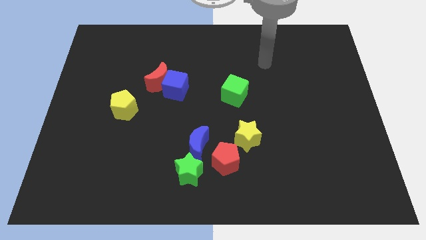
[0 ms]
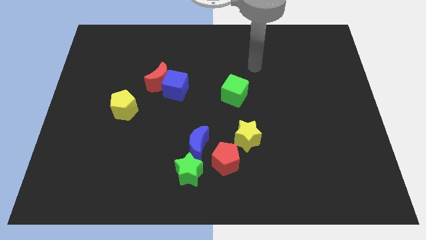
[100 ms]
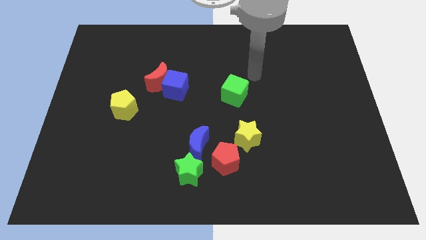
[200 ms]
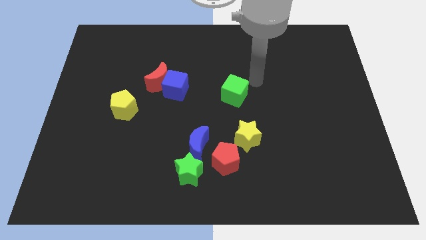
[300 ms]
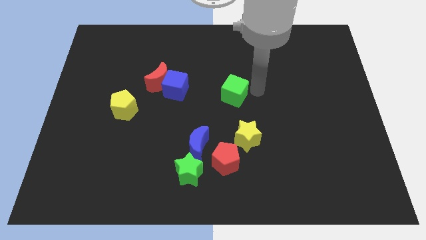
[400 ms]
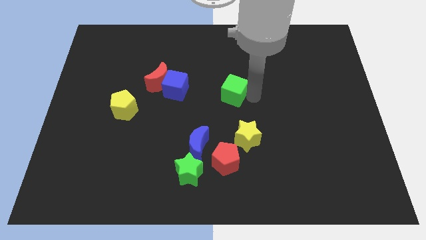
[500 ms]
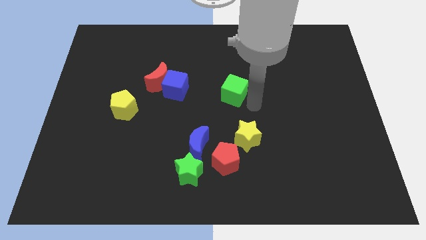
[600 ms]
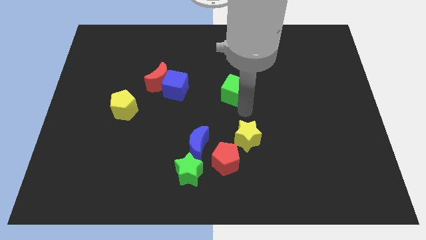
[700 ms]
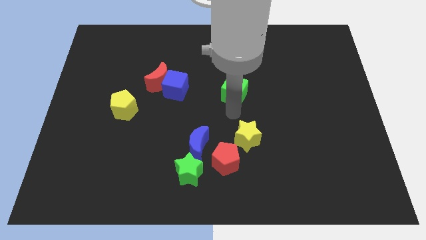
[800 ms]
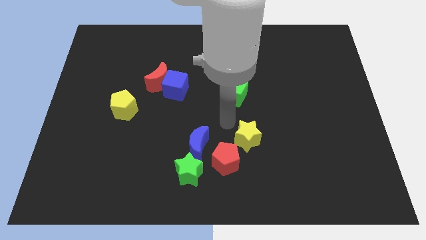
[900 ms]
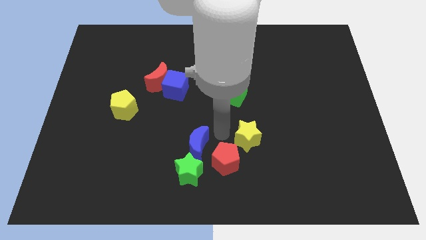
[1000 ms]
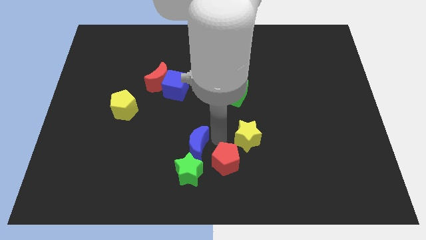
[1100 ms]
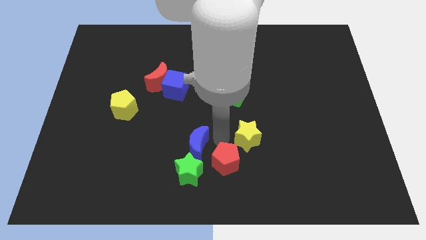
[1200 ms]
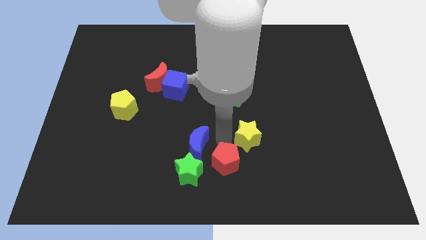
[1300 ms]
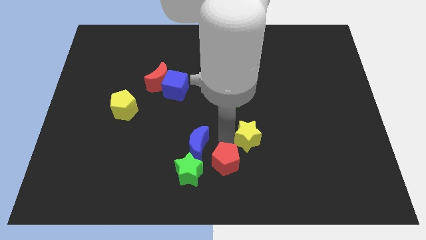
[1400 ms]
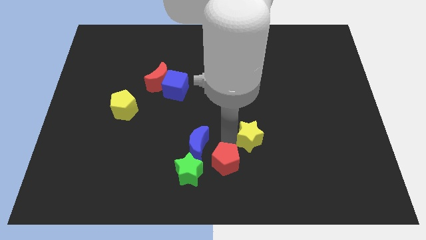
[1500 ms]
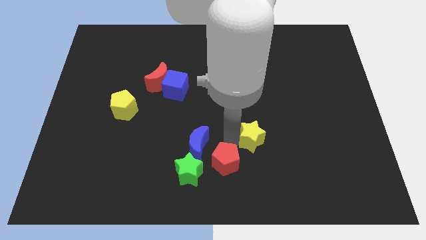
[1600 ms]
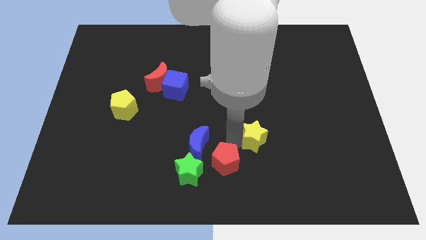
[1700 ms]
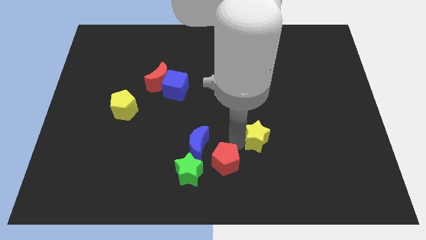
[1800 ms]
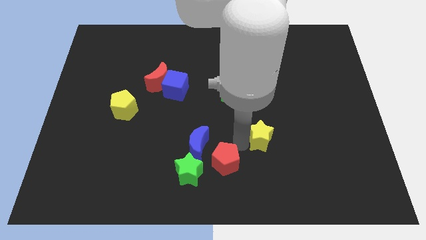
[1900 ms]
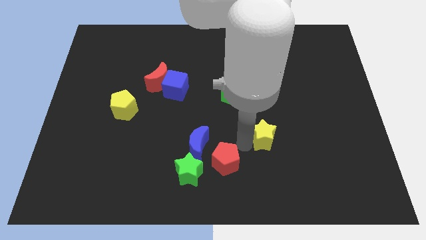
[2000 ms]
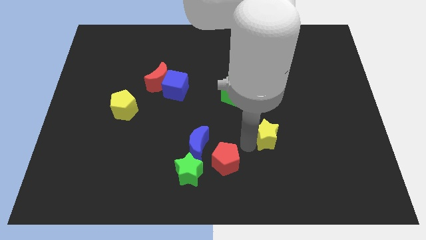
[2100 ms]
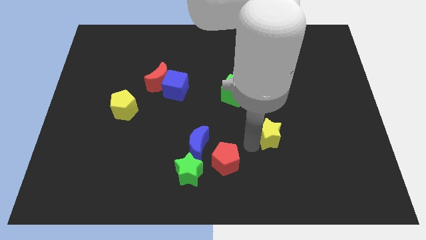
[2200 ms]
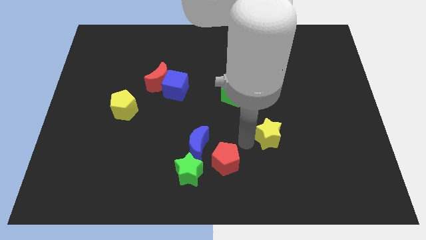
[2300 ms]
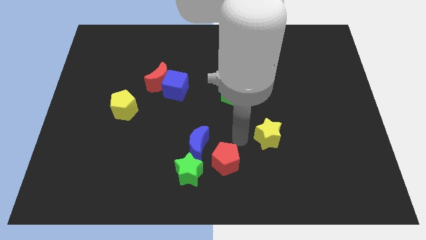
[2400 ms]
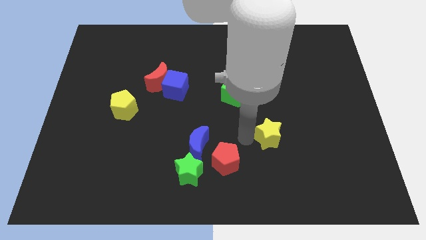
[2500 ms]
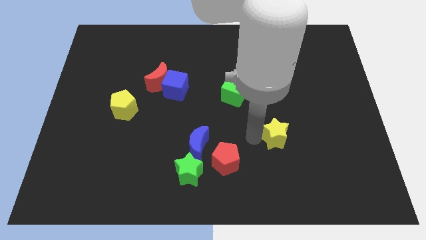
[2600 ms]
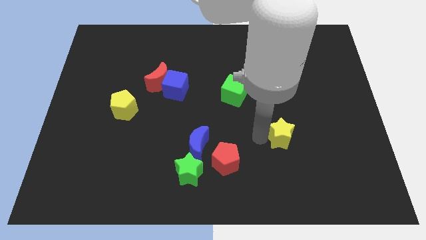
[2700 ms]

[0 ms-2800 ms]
slightly move the yellow star right

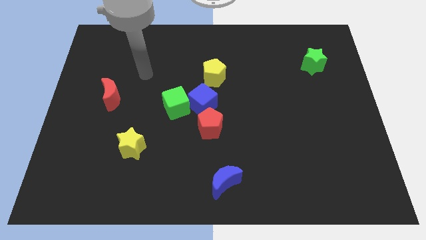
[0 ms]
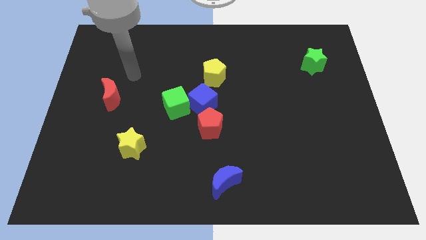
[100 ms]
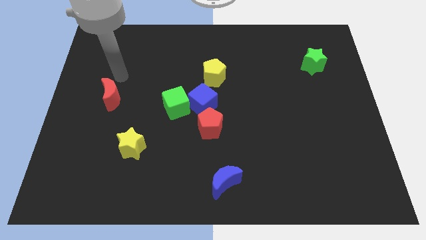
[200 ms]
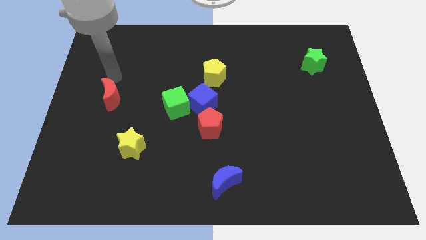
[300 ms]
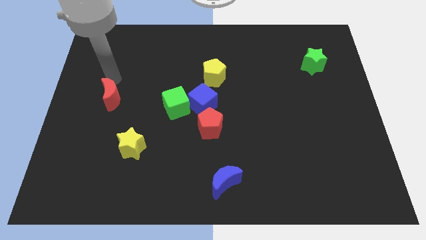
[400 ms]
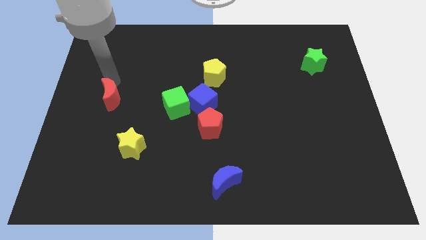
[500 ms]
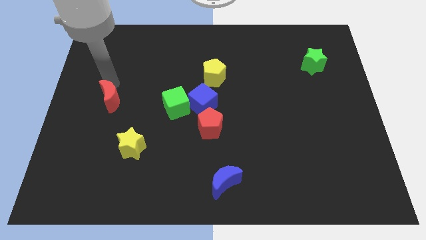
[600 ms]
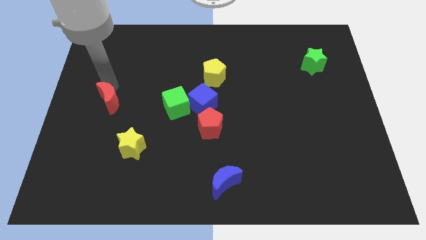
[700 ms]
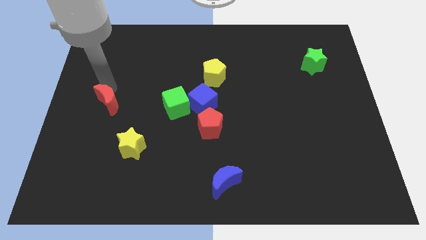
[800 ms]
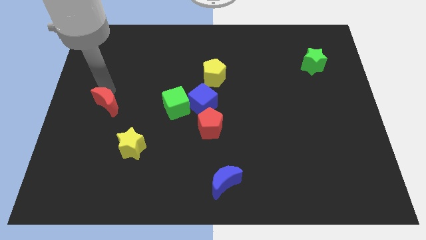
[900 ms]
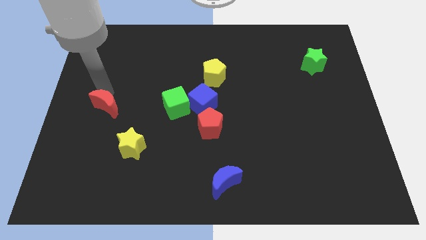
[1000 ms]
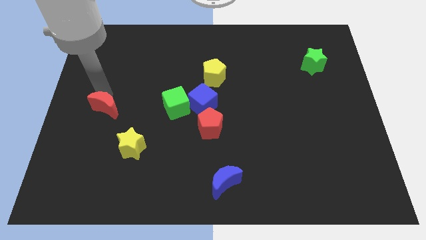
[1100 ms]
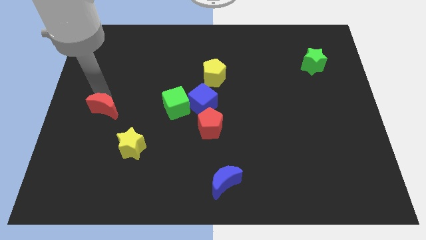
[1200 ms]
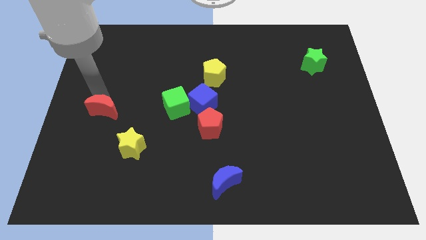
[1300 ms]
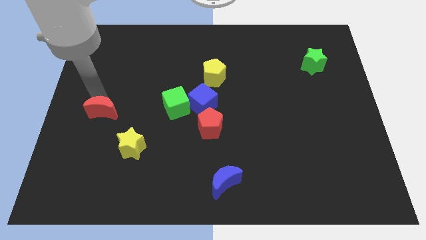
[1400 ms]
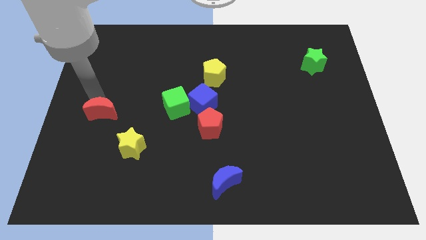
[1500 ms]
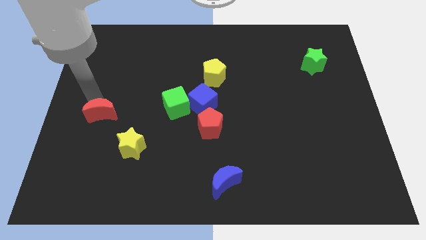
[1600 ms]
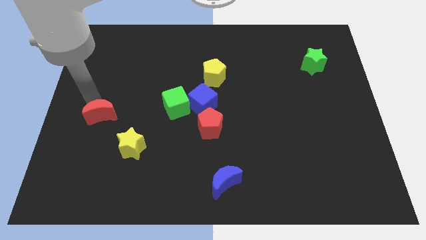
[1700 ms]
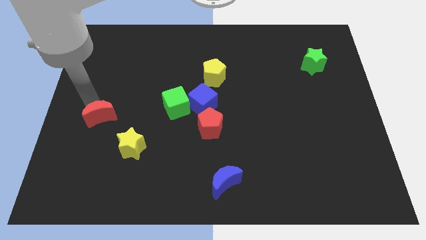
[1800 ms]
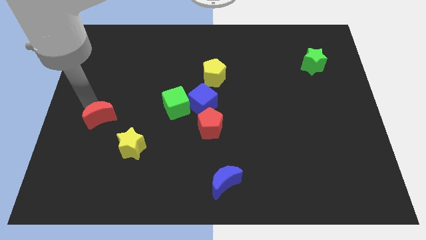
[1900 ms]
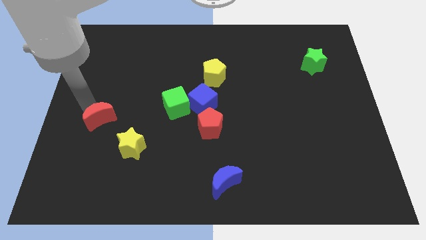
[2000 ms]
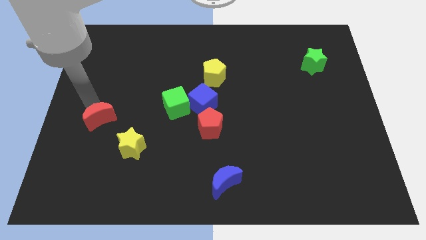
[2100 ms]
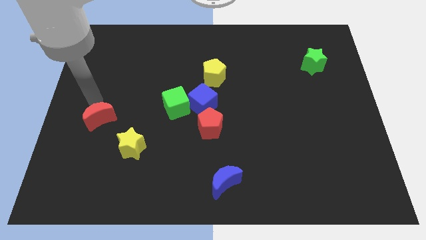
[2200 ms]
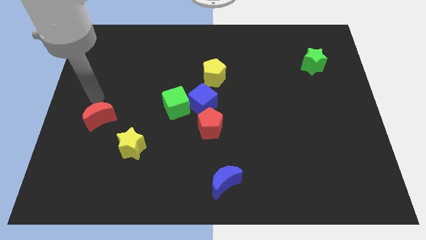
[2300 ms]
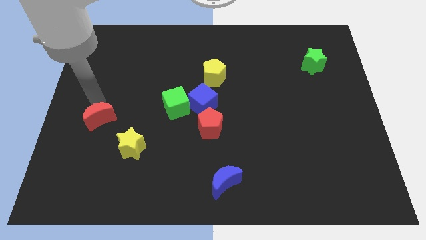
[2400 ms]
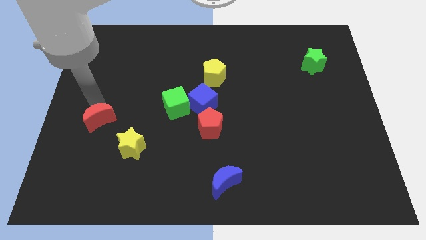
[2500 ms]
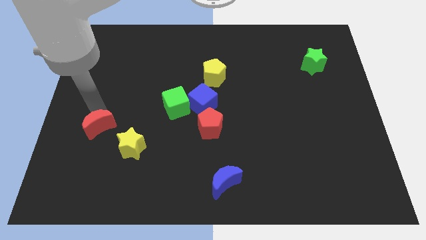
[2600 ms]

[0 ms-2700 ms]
push the red moon a little down

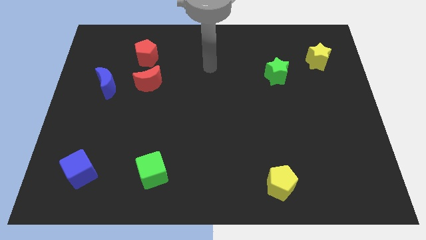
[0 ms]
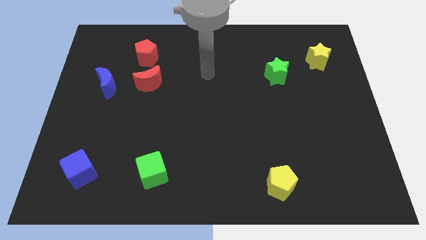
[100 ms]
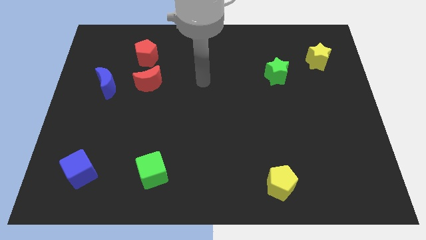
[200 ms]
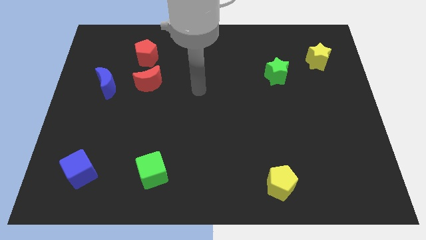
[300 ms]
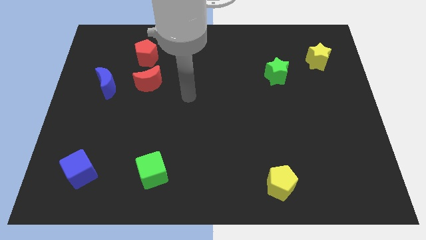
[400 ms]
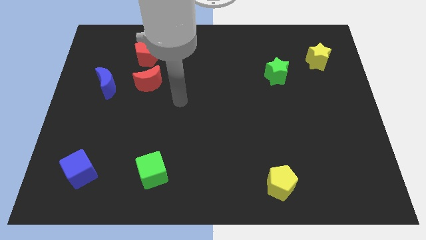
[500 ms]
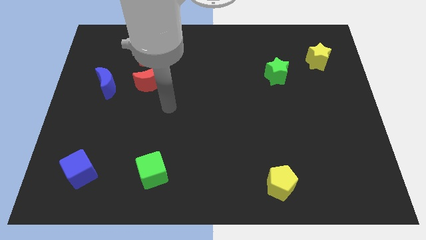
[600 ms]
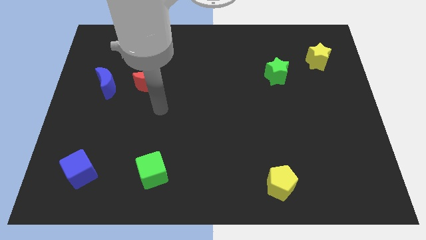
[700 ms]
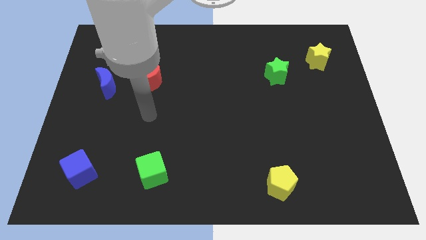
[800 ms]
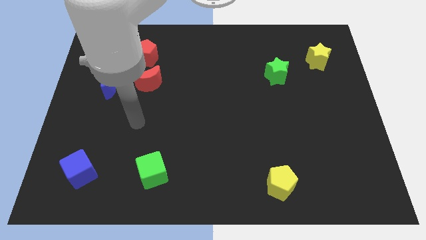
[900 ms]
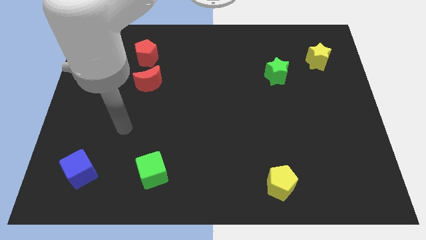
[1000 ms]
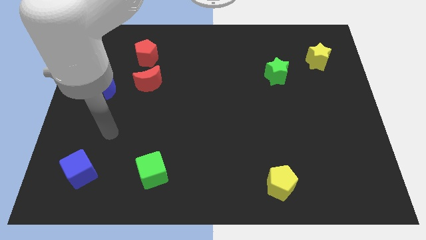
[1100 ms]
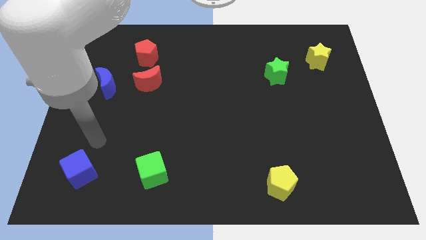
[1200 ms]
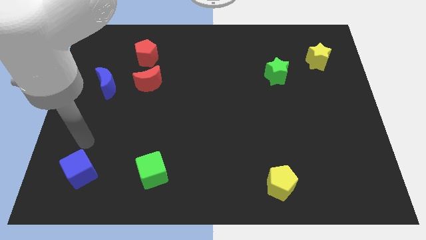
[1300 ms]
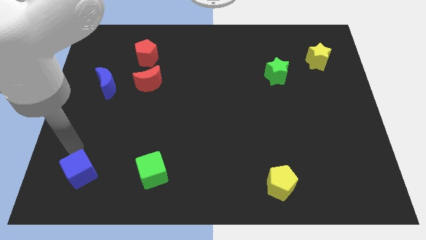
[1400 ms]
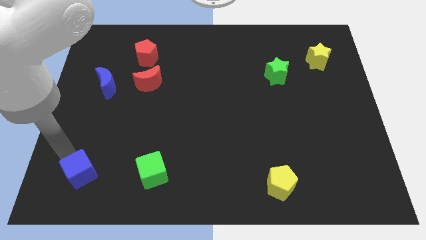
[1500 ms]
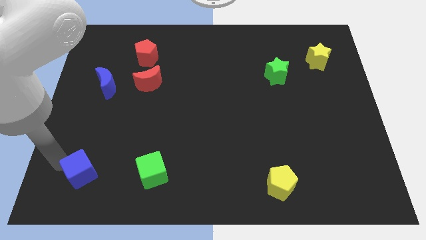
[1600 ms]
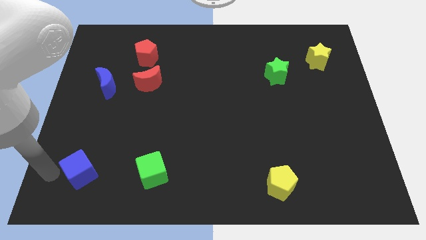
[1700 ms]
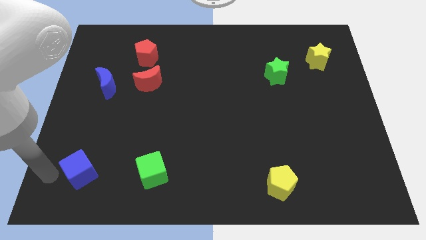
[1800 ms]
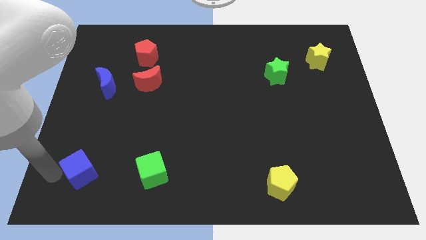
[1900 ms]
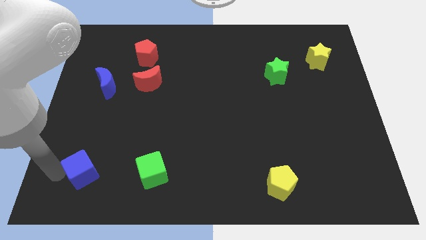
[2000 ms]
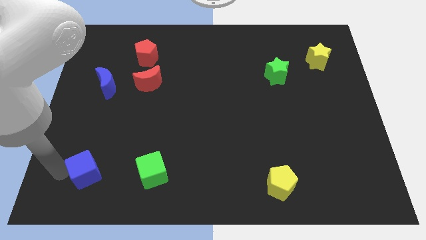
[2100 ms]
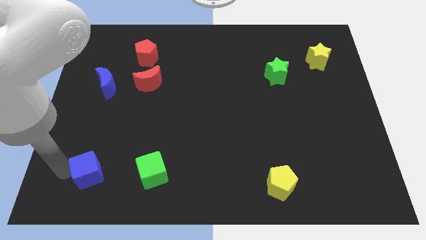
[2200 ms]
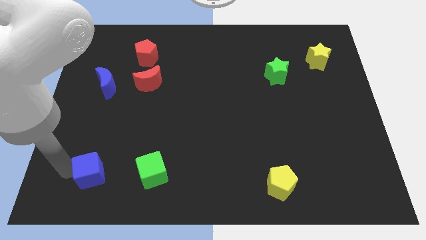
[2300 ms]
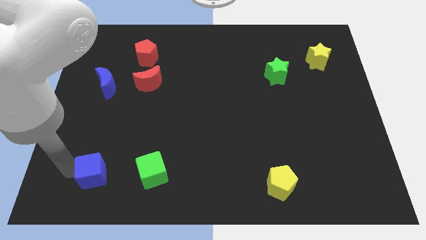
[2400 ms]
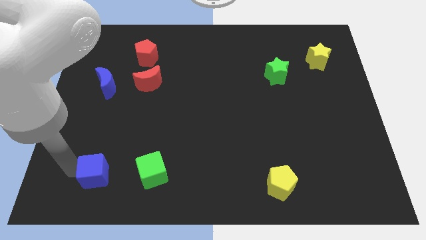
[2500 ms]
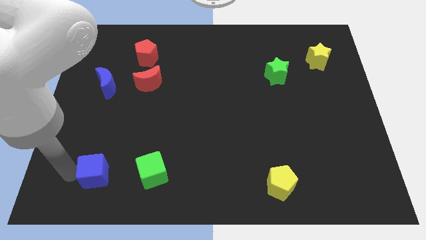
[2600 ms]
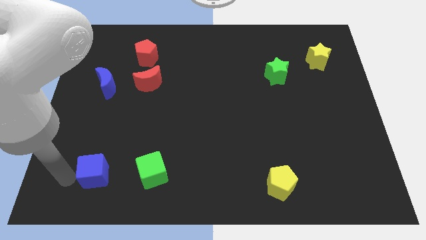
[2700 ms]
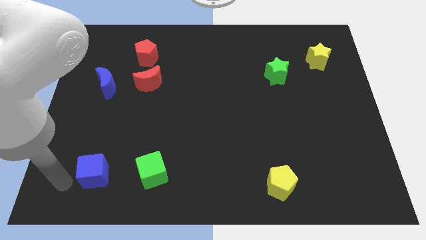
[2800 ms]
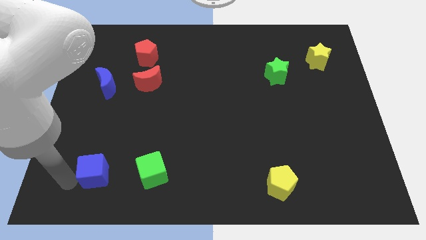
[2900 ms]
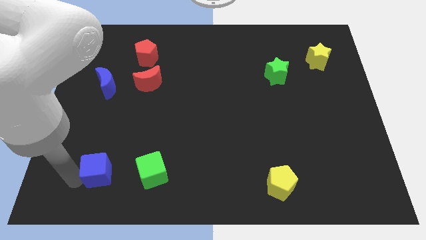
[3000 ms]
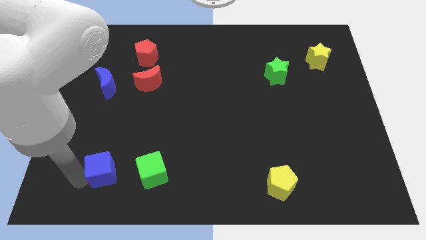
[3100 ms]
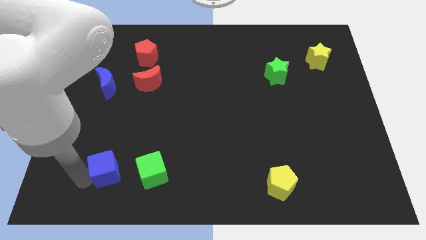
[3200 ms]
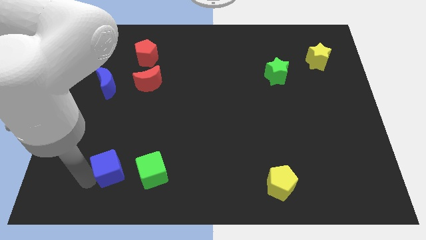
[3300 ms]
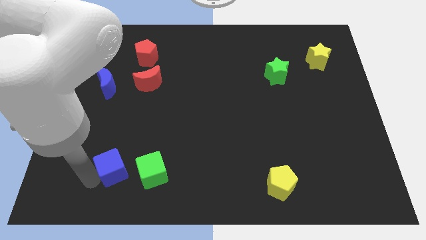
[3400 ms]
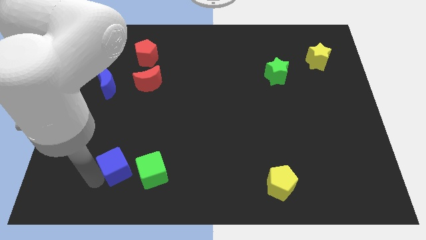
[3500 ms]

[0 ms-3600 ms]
slightly slide the blue cube right
